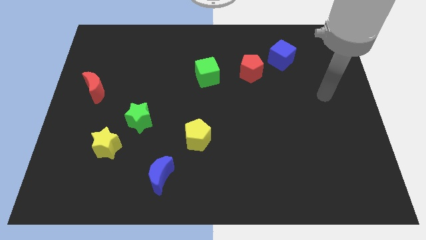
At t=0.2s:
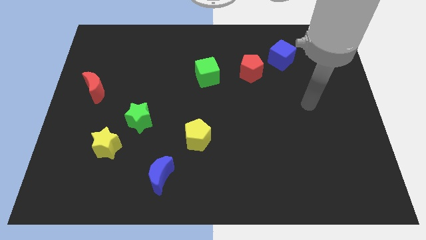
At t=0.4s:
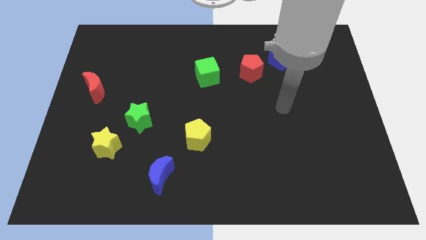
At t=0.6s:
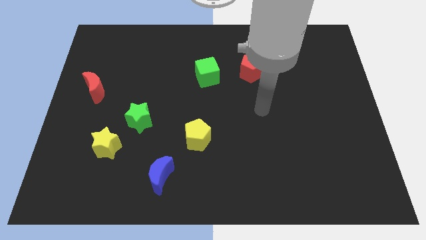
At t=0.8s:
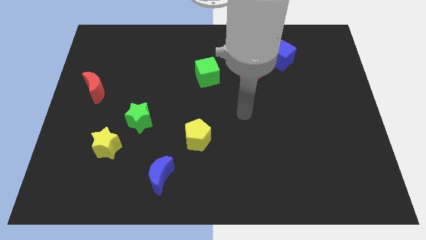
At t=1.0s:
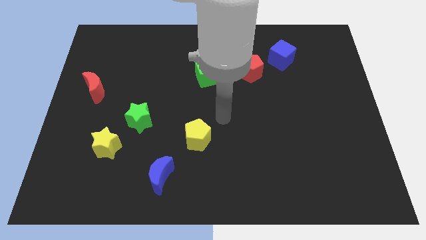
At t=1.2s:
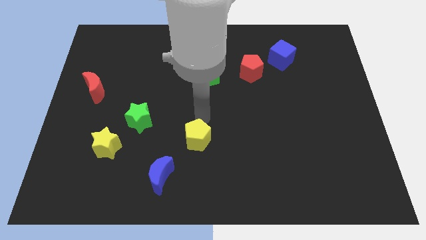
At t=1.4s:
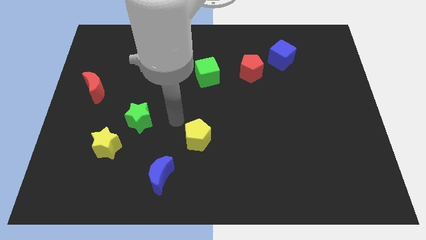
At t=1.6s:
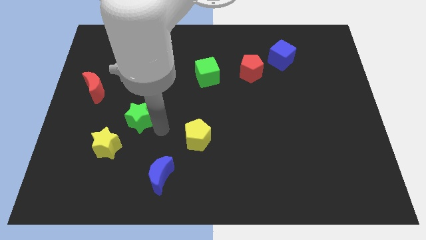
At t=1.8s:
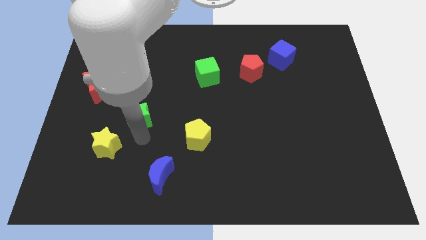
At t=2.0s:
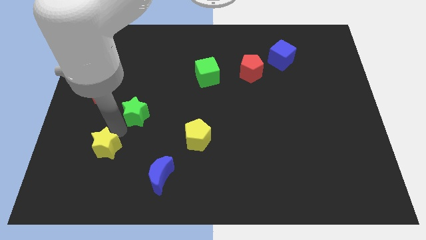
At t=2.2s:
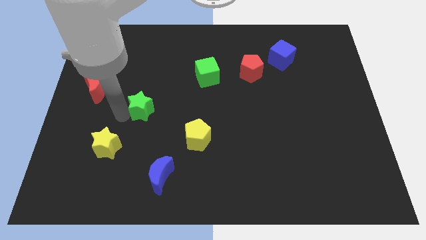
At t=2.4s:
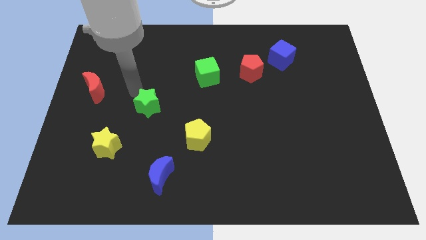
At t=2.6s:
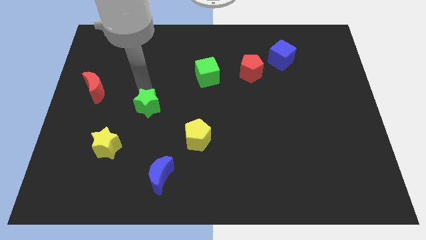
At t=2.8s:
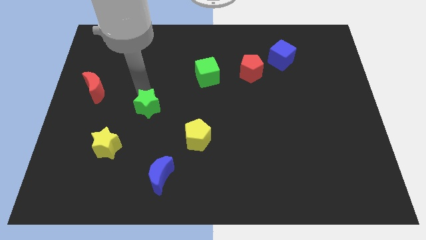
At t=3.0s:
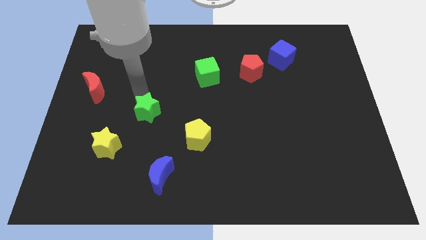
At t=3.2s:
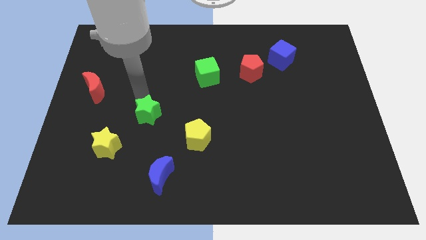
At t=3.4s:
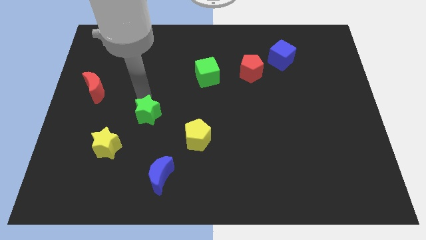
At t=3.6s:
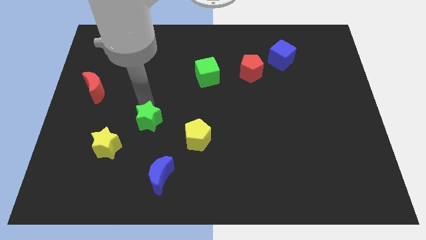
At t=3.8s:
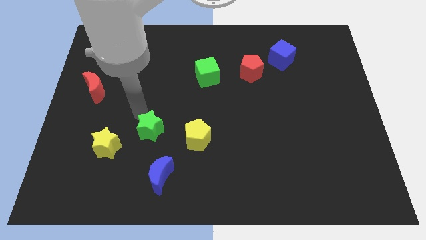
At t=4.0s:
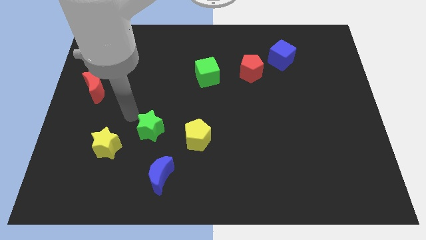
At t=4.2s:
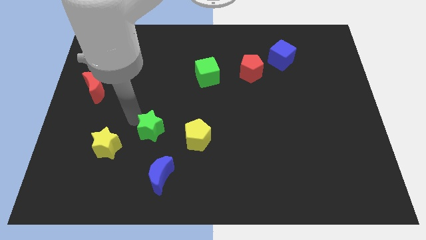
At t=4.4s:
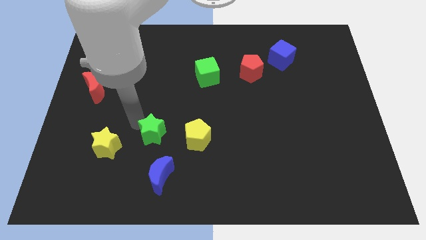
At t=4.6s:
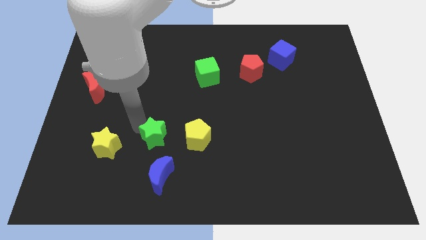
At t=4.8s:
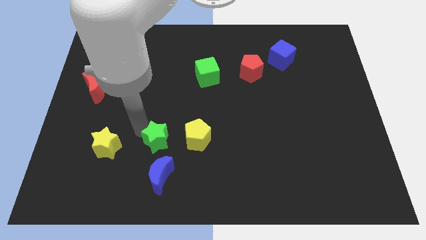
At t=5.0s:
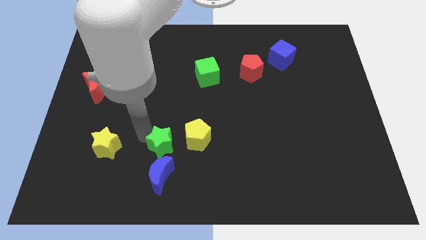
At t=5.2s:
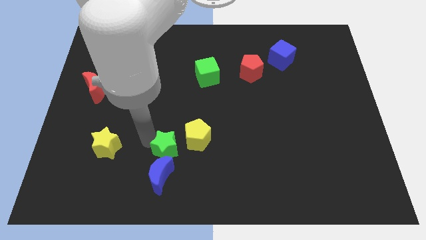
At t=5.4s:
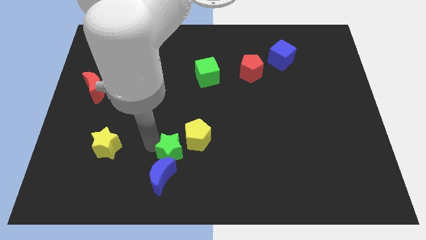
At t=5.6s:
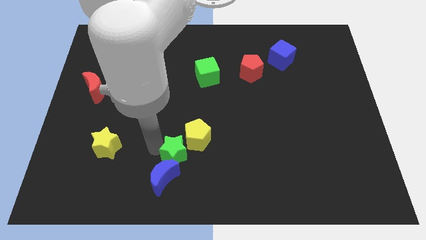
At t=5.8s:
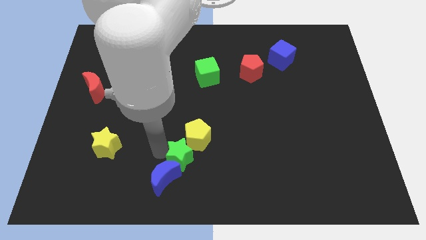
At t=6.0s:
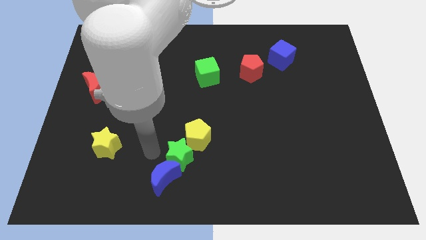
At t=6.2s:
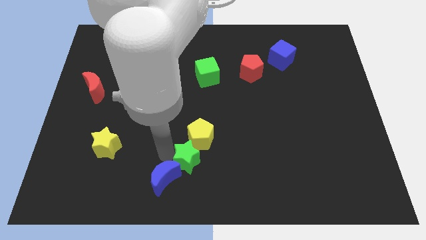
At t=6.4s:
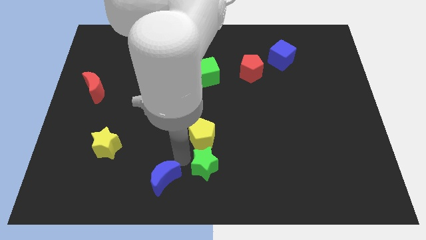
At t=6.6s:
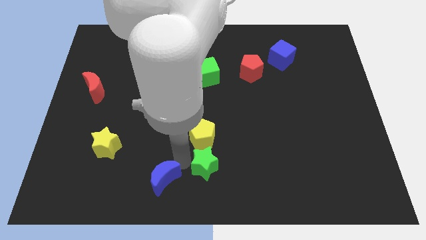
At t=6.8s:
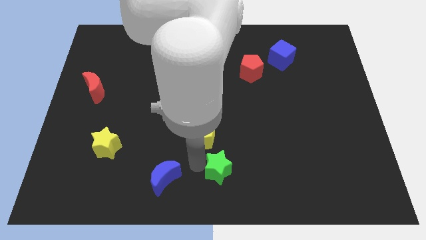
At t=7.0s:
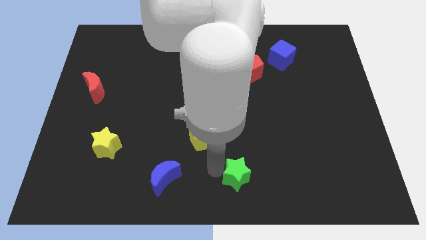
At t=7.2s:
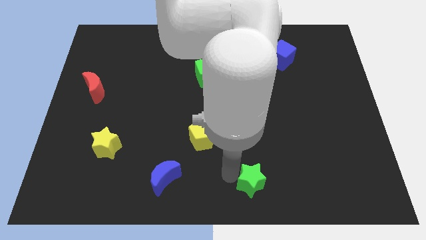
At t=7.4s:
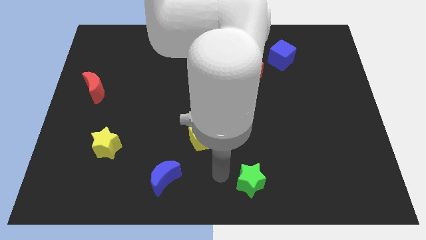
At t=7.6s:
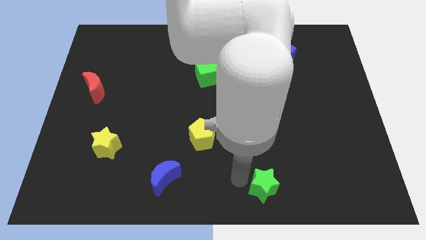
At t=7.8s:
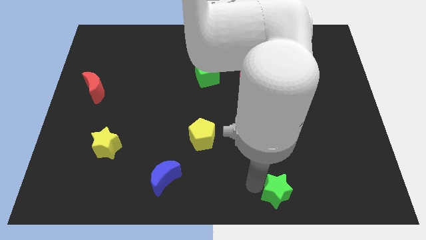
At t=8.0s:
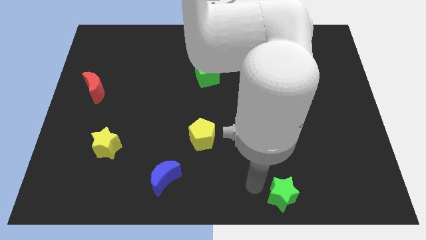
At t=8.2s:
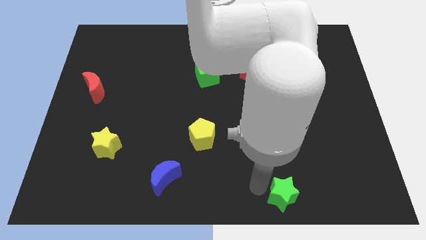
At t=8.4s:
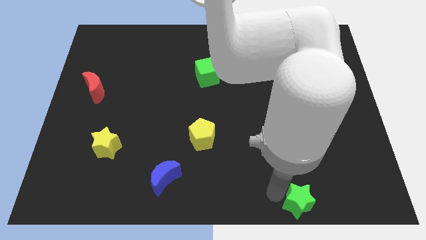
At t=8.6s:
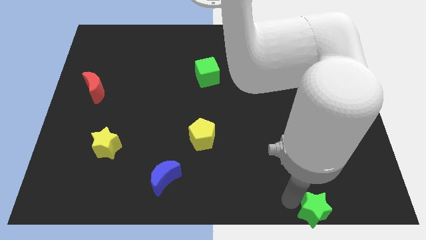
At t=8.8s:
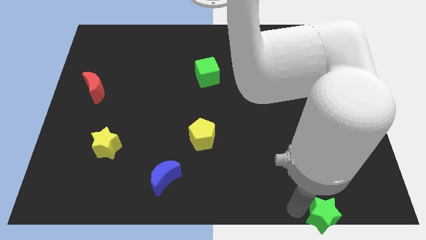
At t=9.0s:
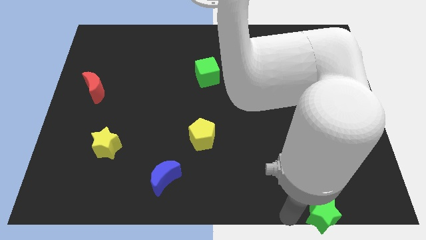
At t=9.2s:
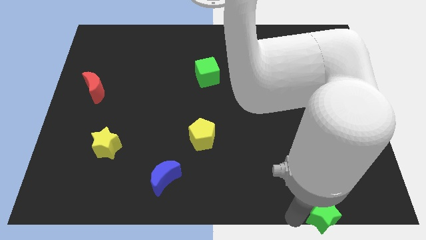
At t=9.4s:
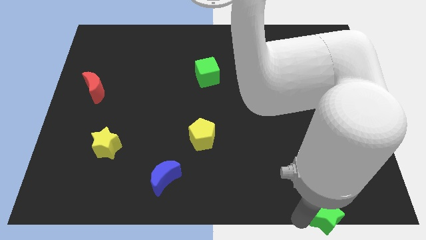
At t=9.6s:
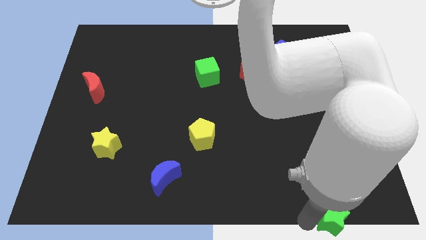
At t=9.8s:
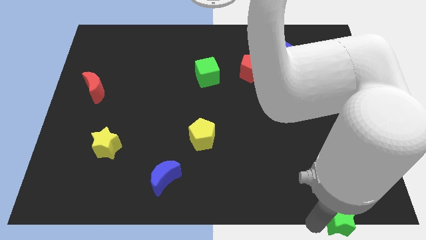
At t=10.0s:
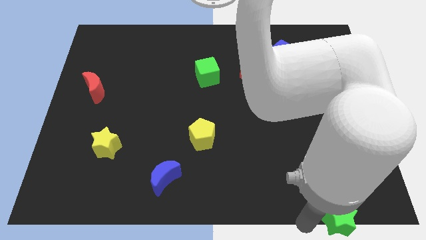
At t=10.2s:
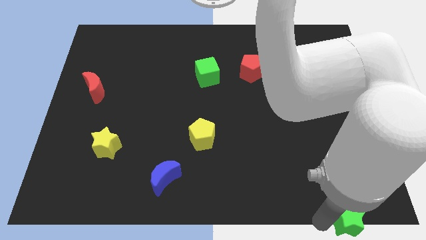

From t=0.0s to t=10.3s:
put the green star to the bottom right
